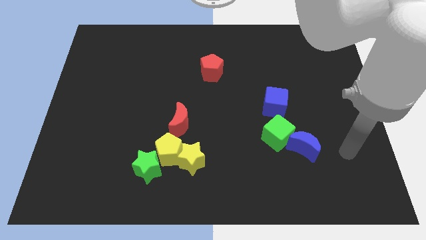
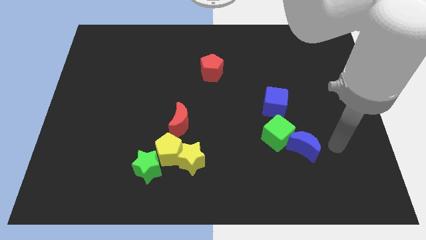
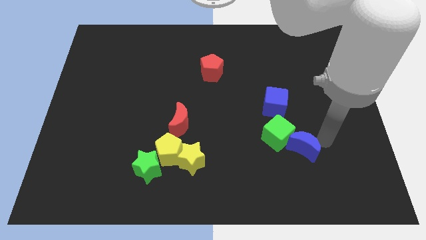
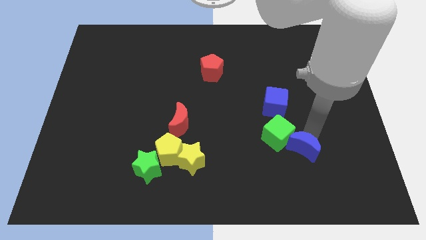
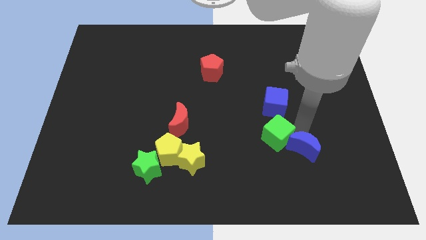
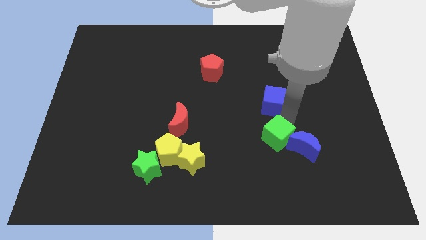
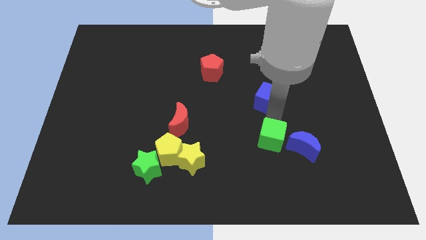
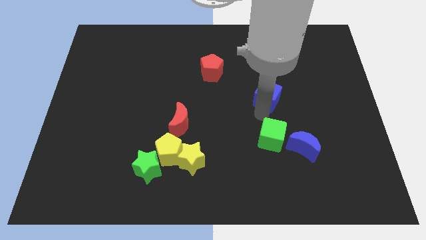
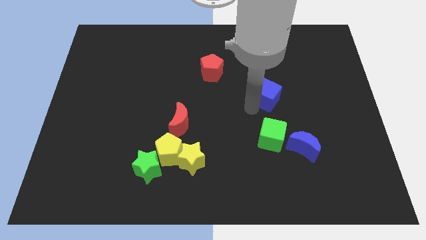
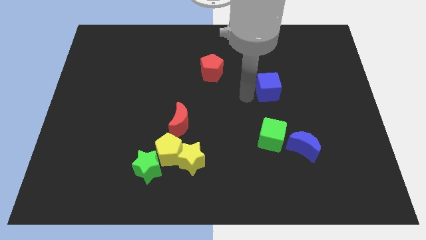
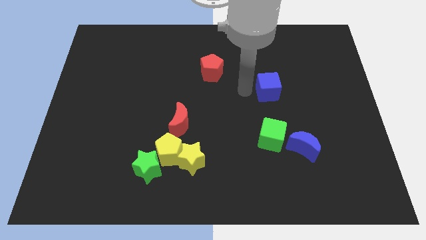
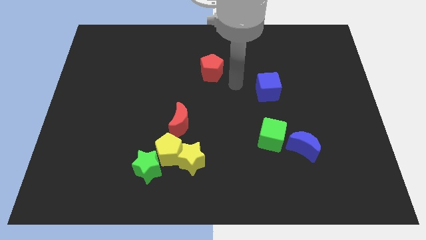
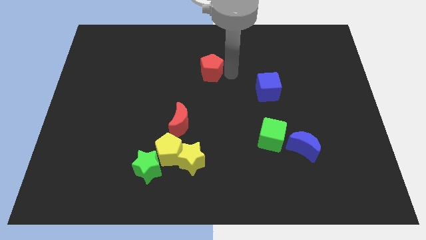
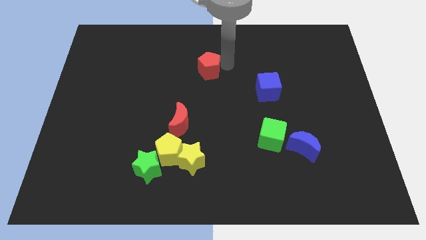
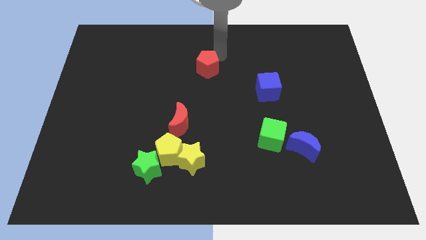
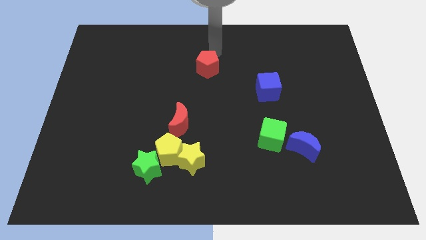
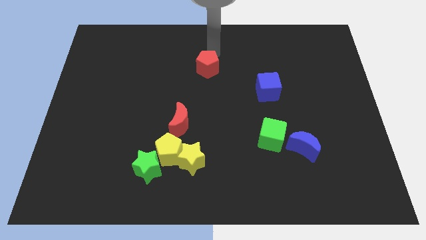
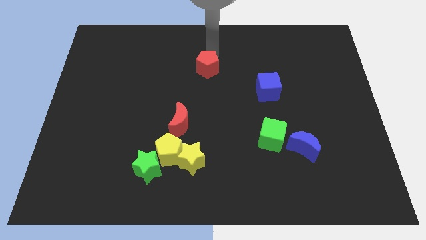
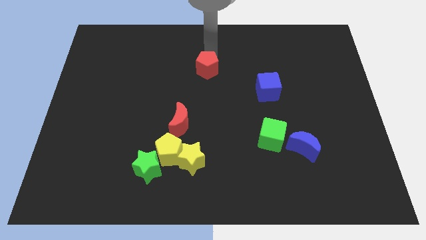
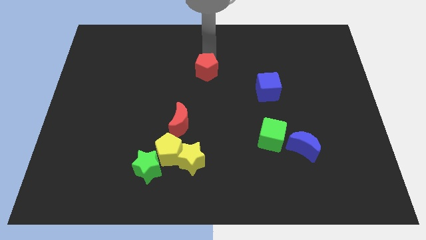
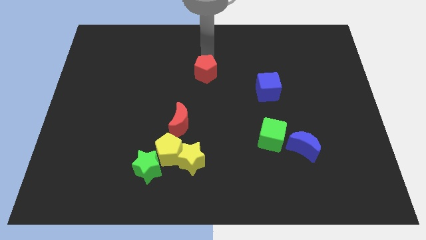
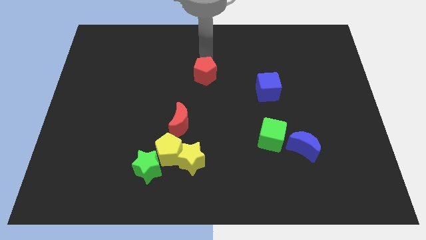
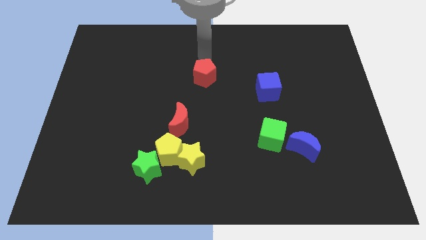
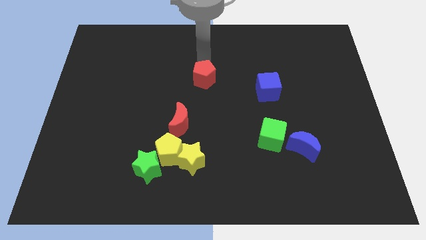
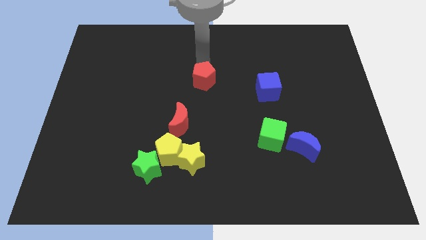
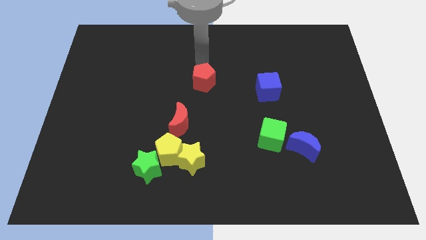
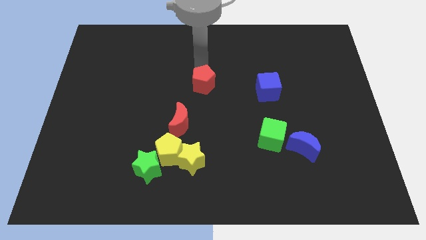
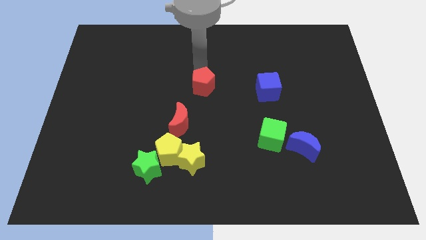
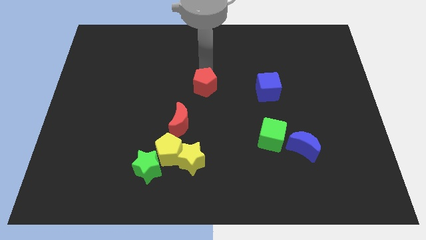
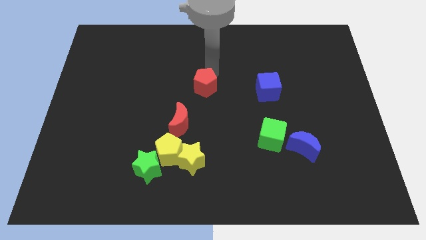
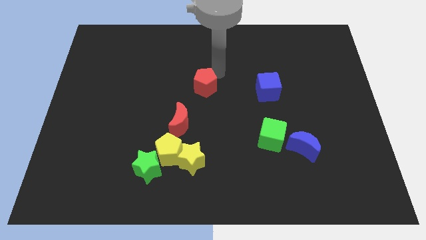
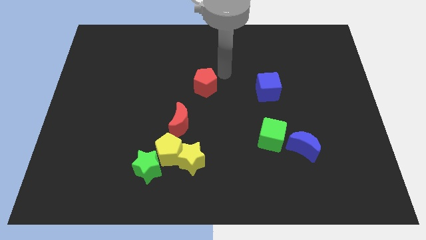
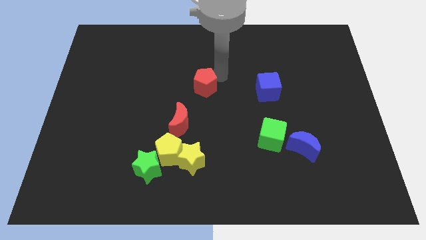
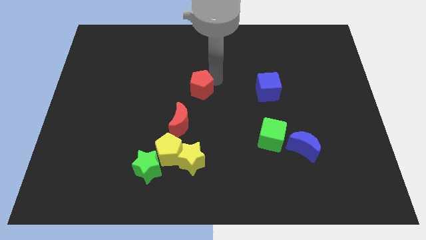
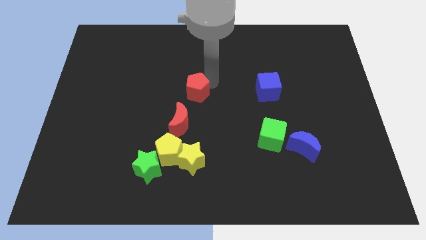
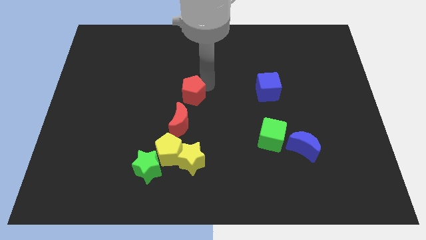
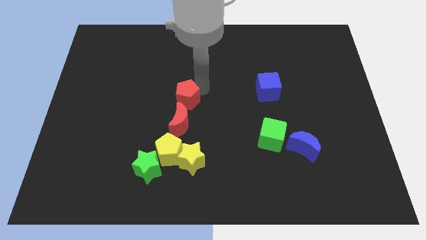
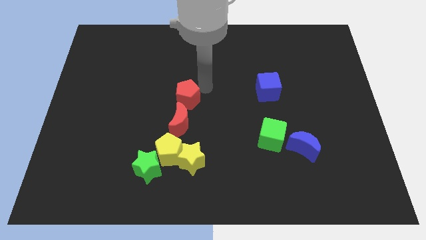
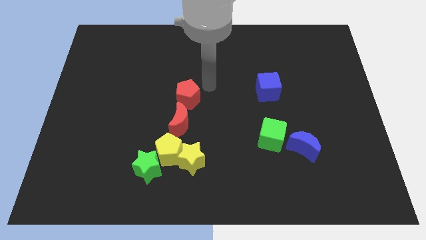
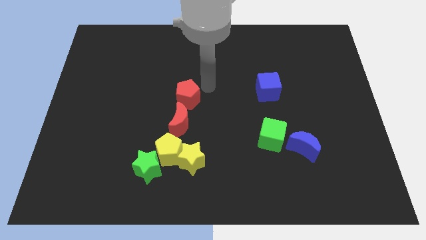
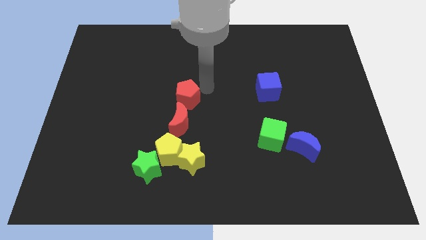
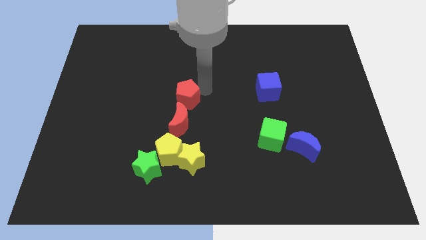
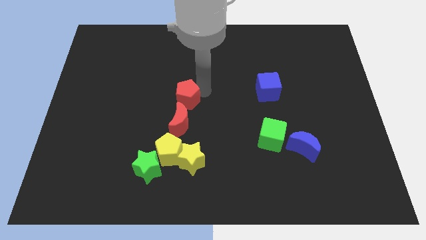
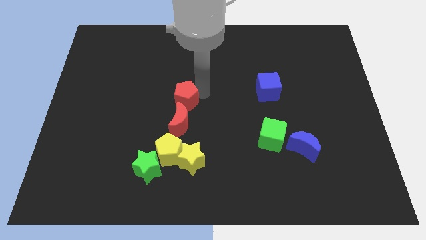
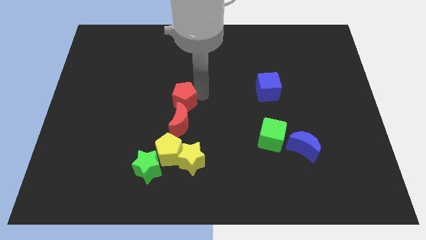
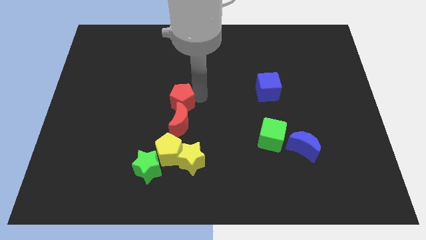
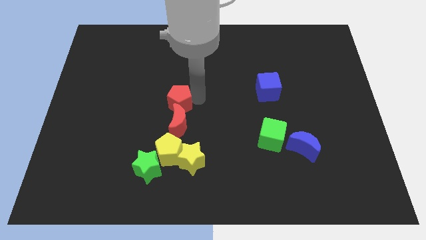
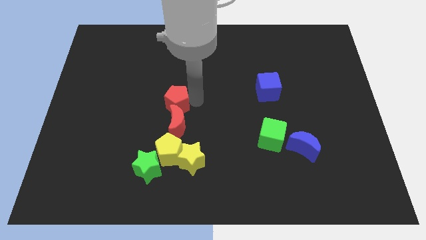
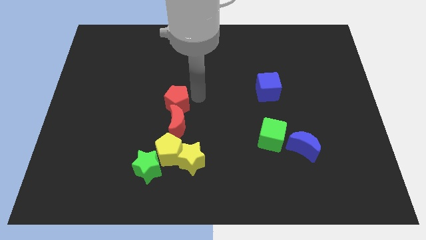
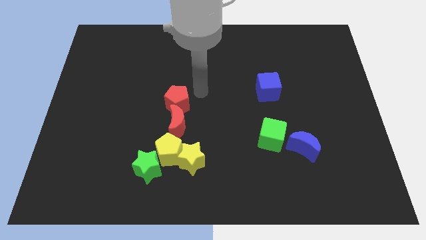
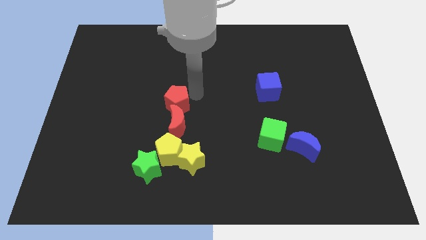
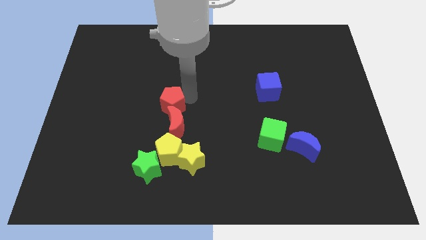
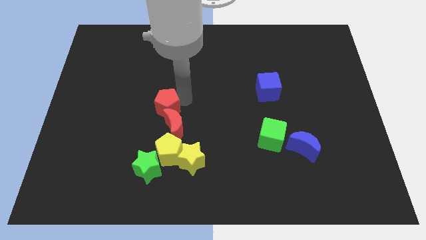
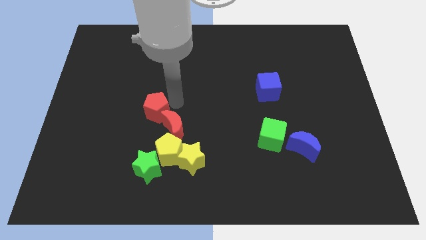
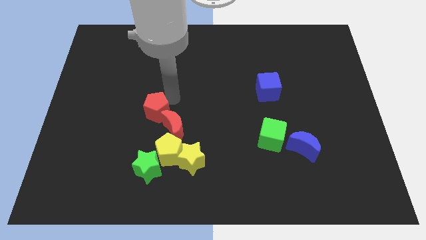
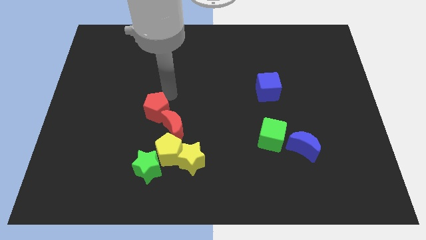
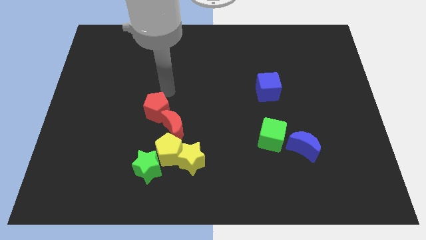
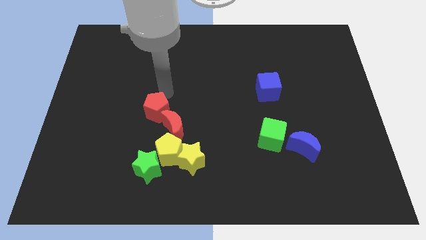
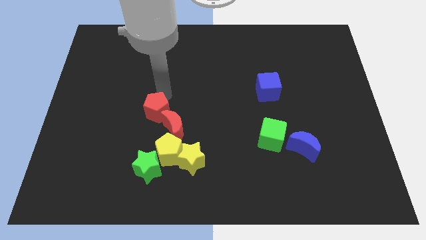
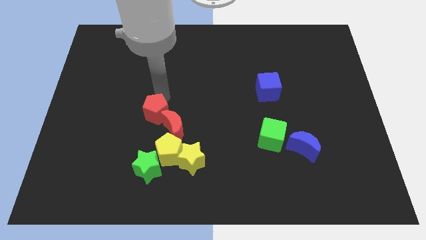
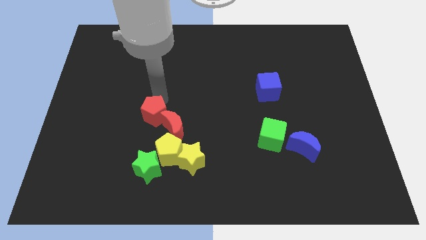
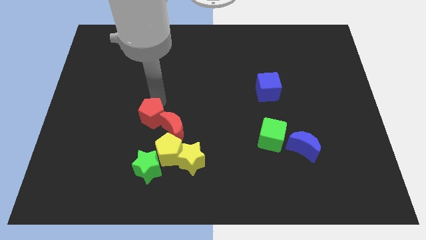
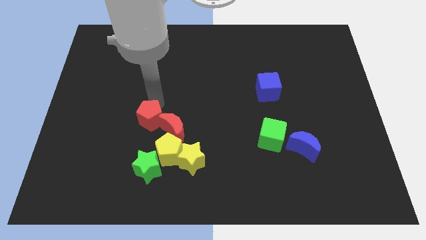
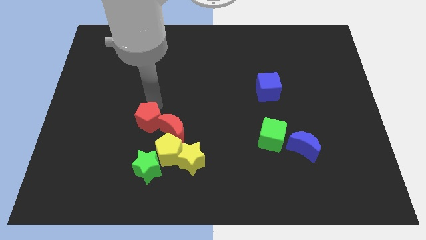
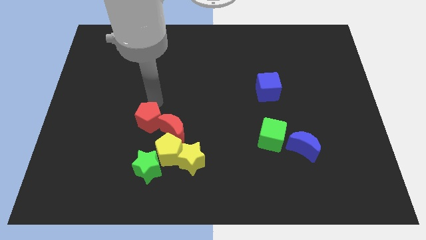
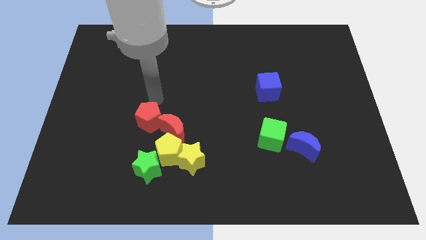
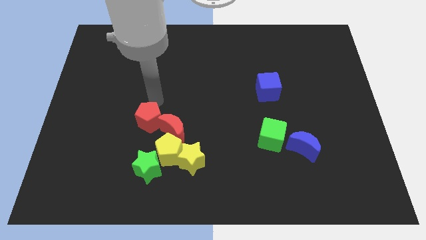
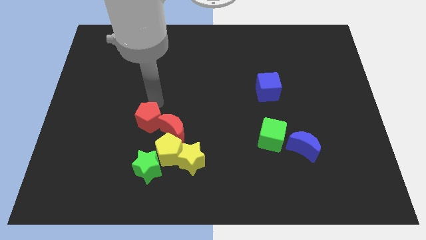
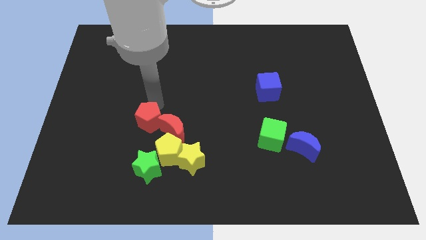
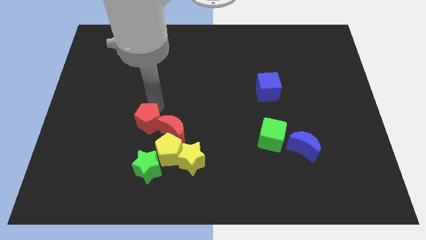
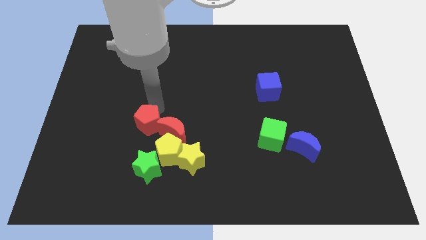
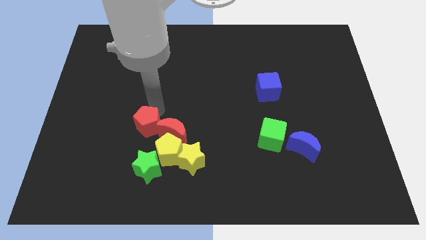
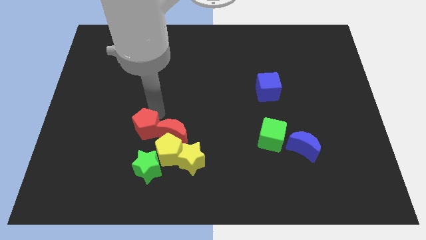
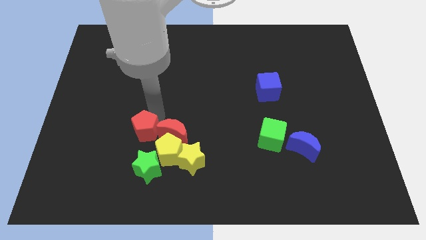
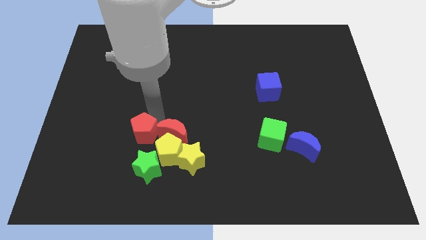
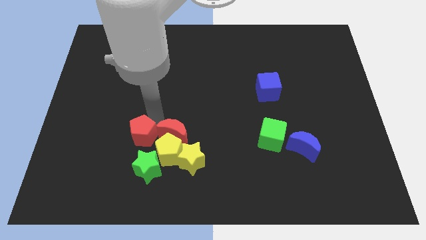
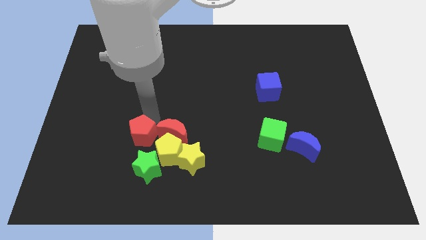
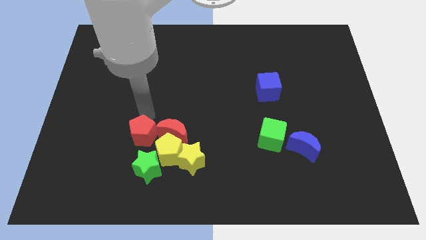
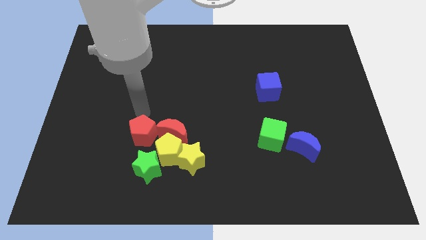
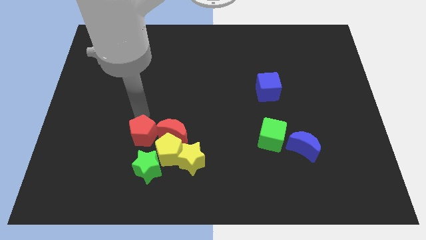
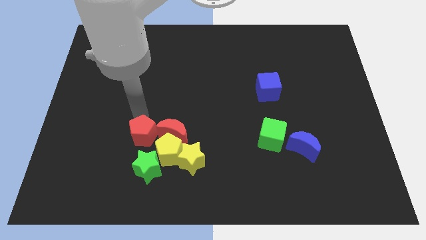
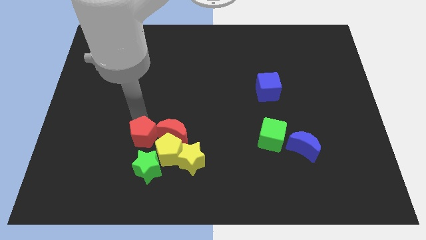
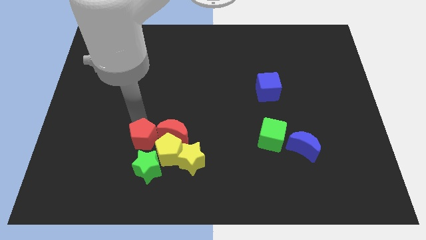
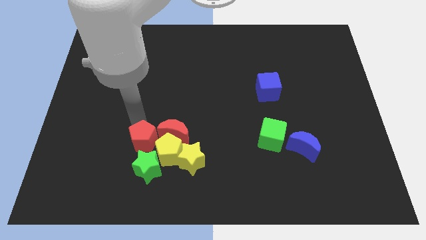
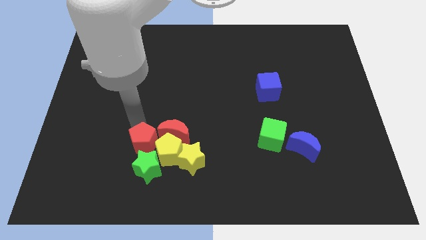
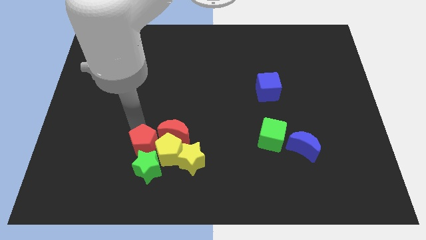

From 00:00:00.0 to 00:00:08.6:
put the red pentagon towards the green star
